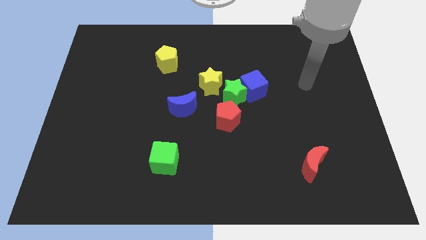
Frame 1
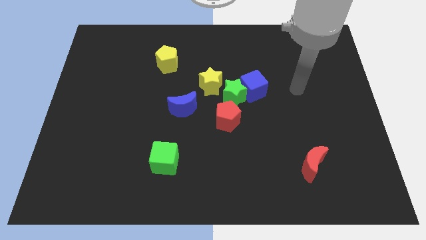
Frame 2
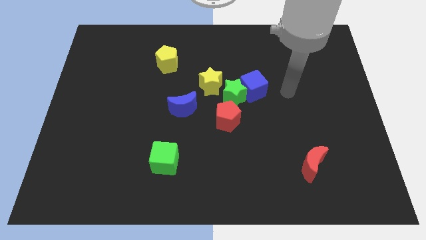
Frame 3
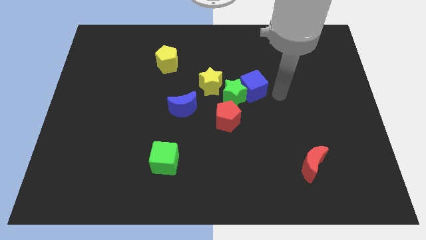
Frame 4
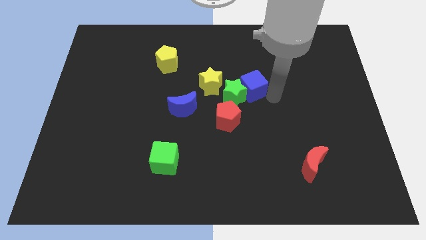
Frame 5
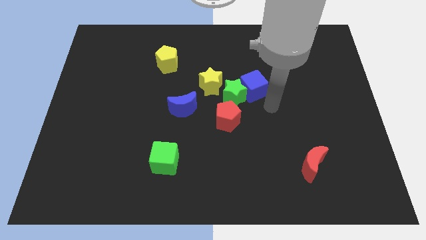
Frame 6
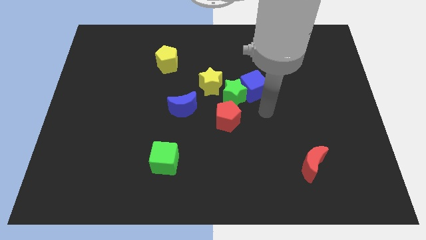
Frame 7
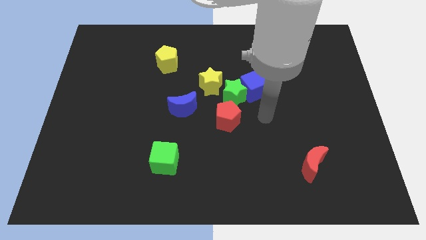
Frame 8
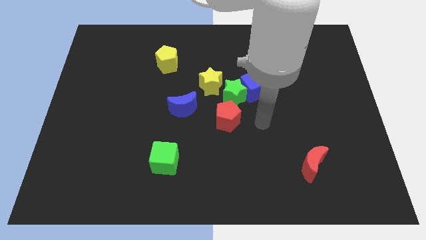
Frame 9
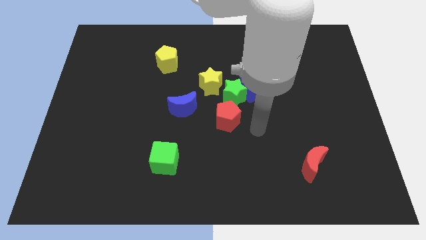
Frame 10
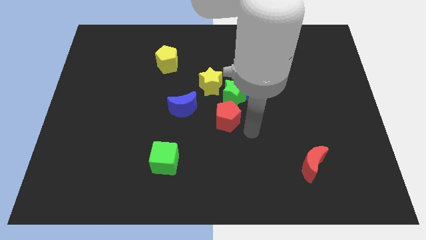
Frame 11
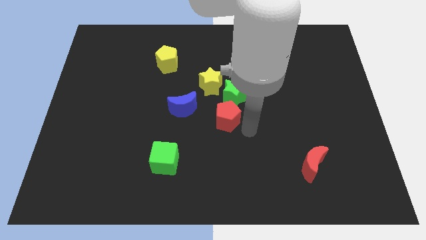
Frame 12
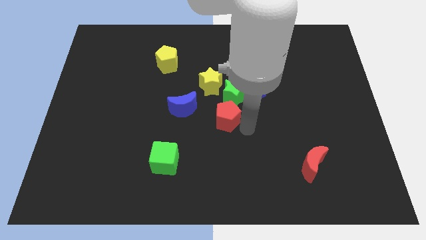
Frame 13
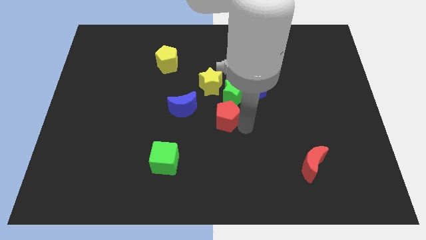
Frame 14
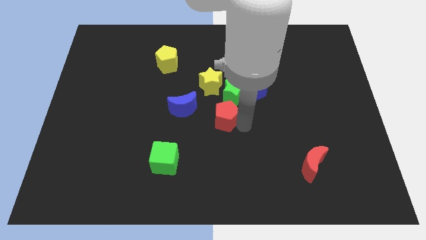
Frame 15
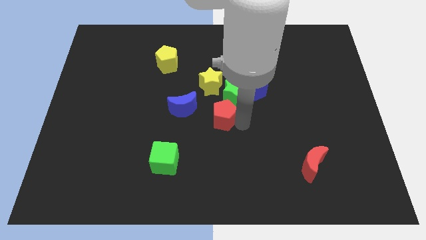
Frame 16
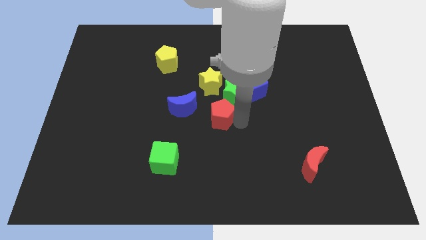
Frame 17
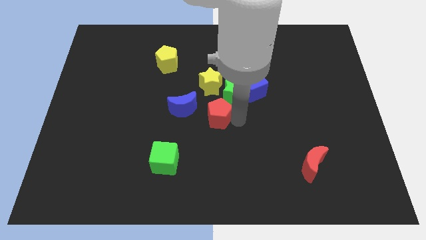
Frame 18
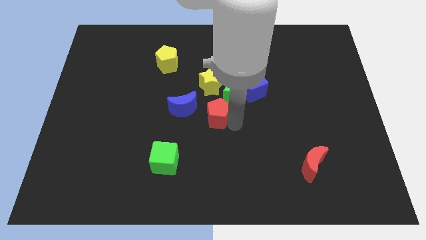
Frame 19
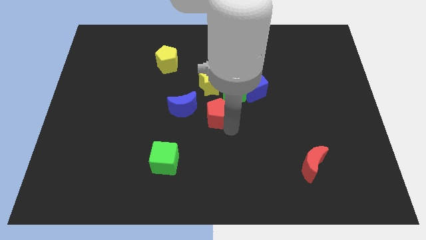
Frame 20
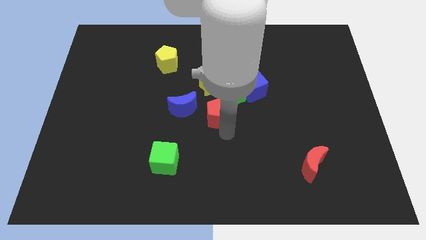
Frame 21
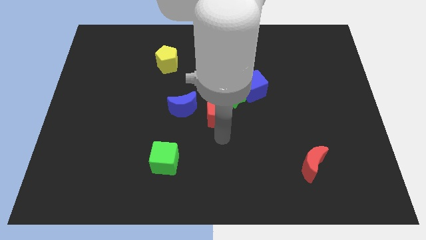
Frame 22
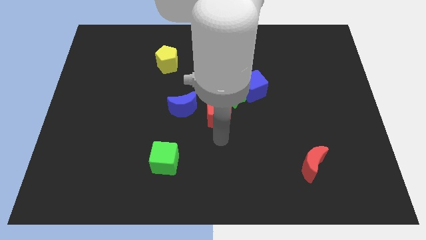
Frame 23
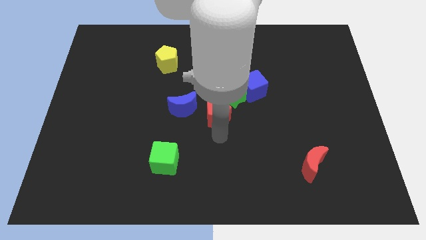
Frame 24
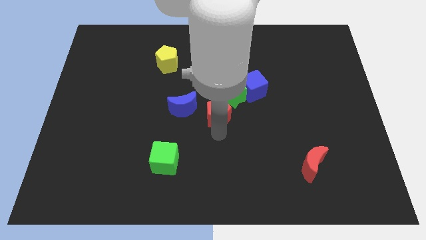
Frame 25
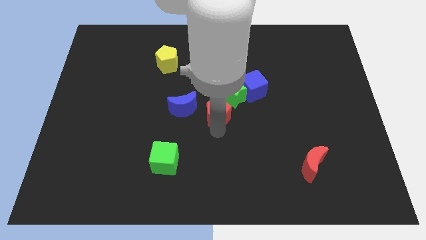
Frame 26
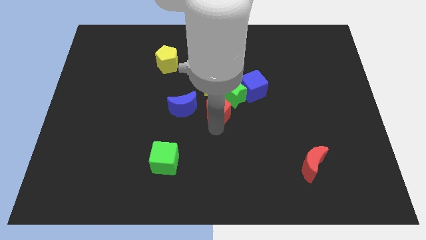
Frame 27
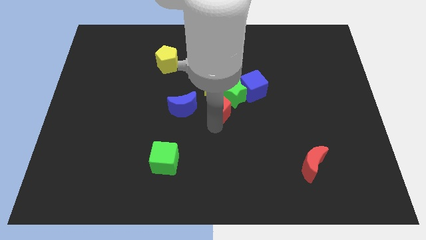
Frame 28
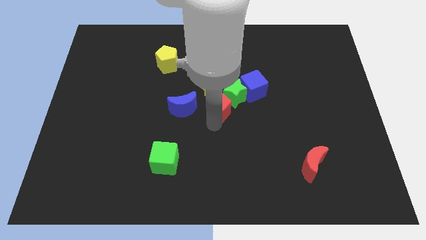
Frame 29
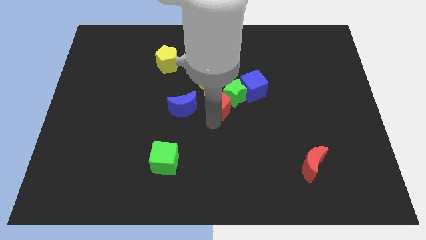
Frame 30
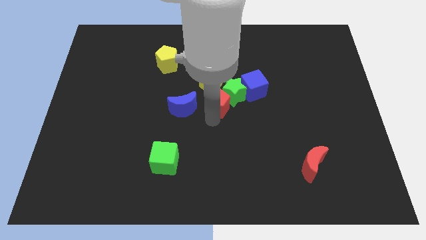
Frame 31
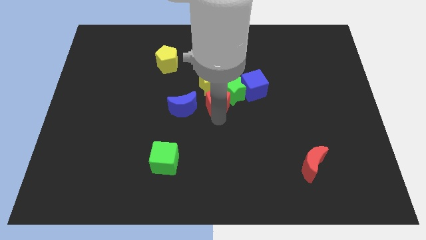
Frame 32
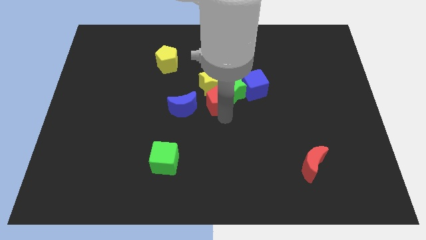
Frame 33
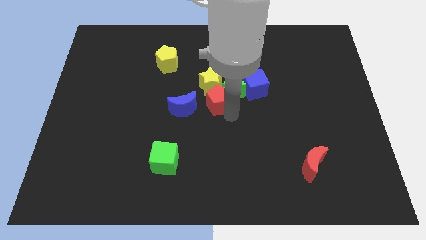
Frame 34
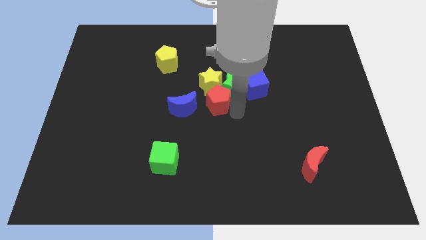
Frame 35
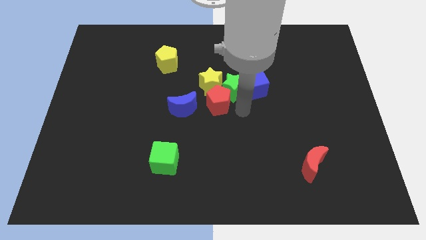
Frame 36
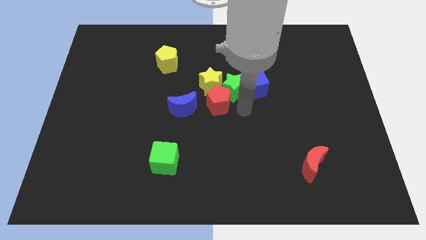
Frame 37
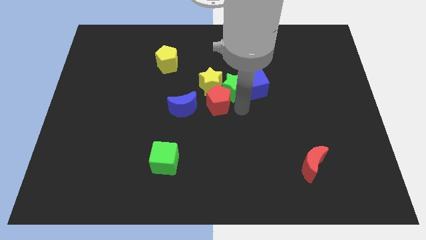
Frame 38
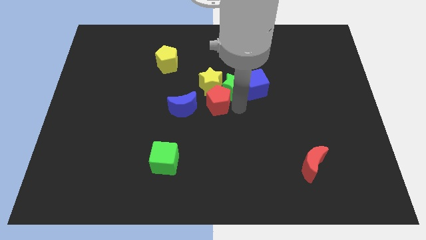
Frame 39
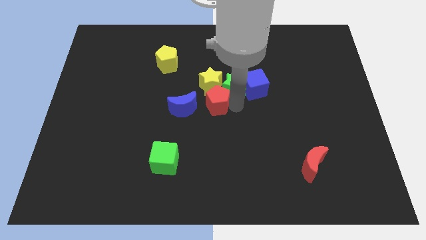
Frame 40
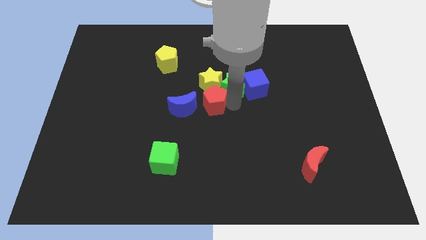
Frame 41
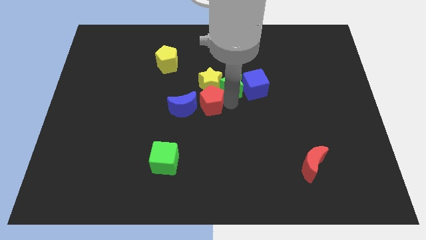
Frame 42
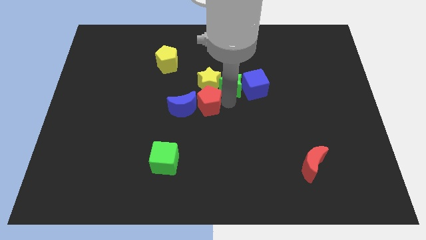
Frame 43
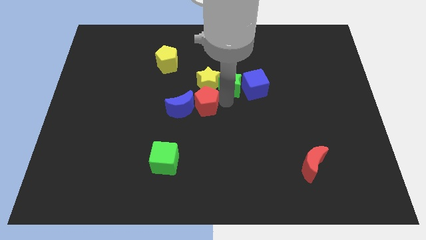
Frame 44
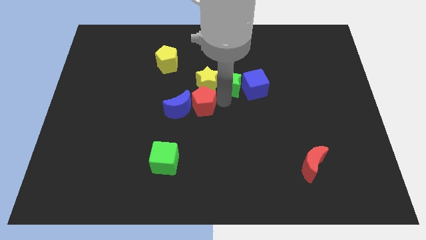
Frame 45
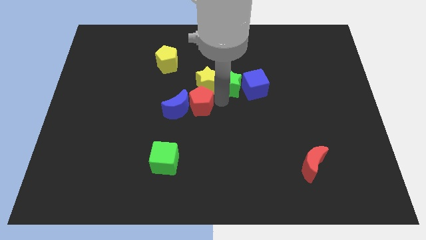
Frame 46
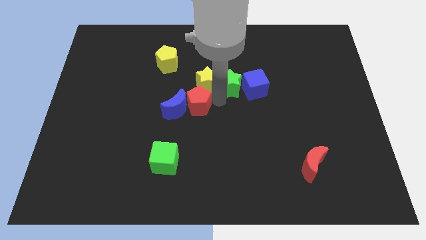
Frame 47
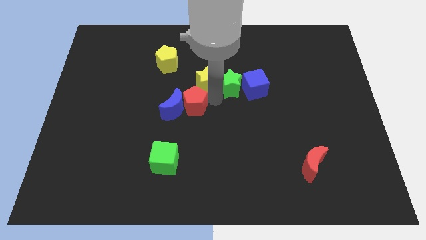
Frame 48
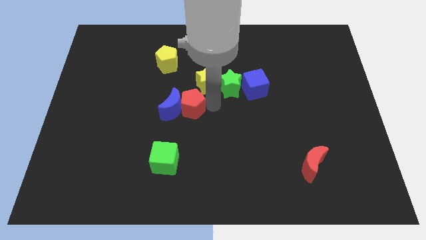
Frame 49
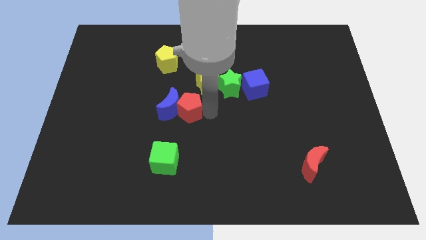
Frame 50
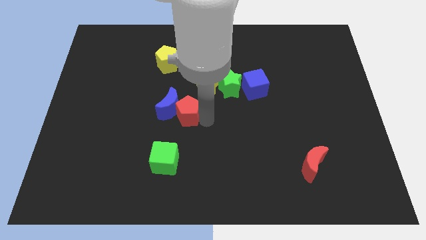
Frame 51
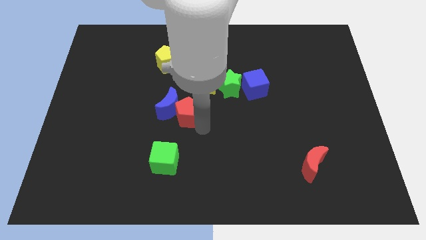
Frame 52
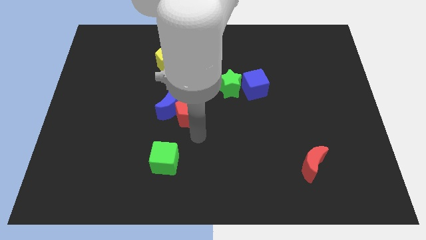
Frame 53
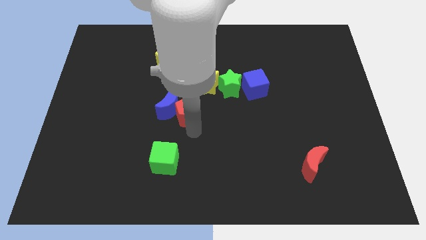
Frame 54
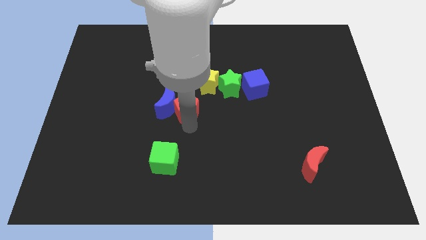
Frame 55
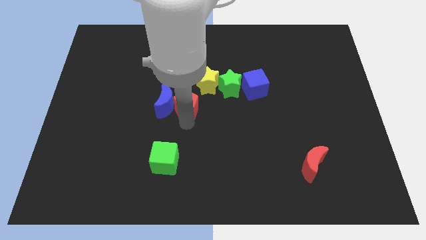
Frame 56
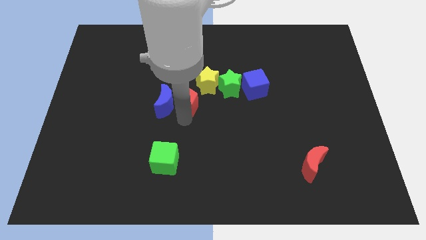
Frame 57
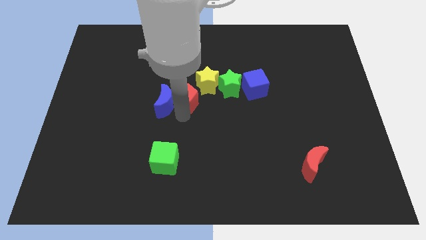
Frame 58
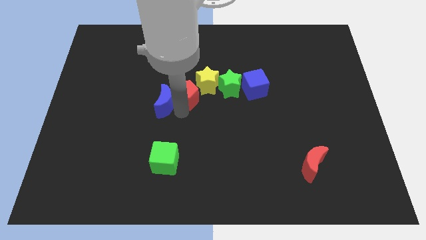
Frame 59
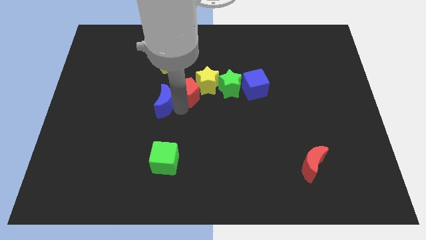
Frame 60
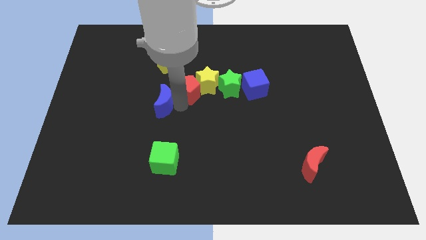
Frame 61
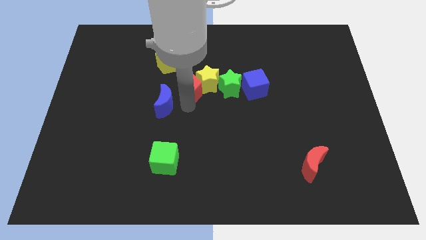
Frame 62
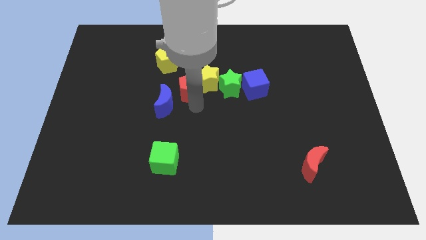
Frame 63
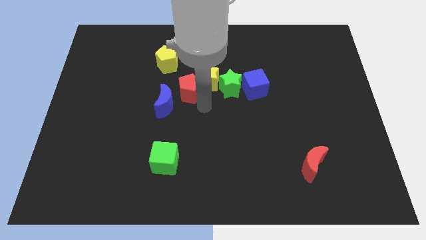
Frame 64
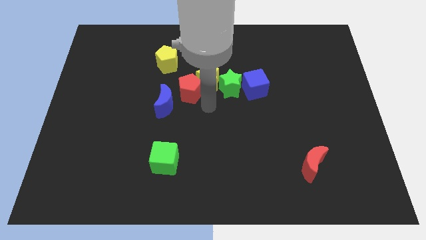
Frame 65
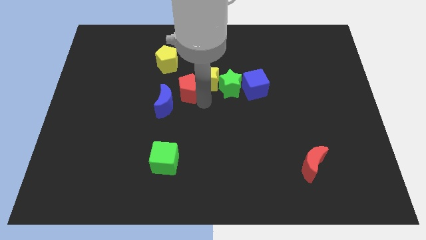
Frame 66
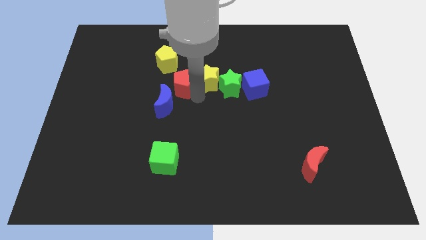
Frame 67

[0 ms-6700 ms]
move the red pentagon to the top of the blue moon
